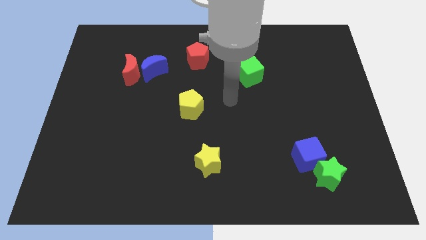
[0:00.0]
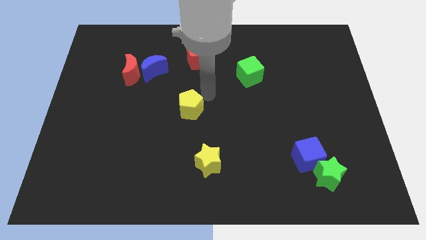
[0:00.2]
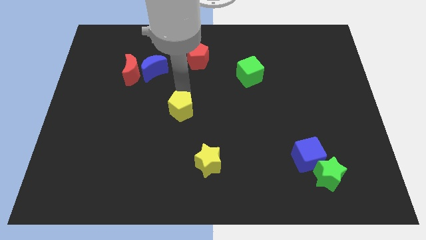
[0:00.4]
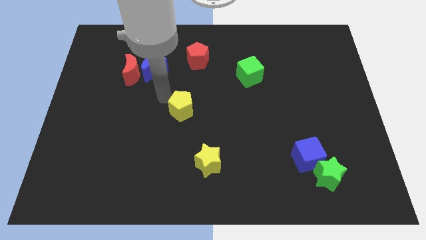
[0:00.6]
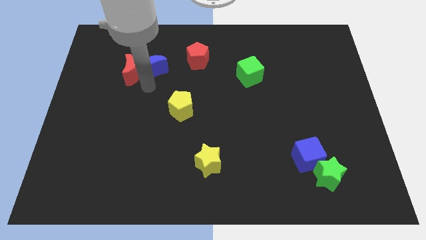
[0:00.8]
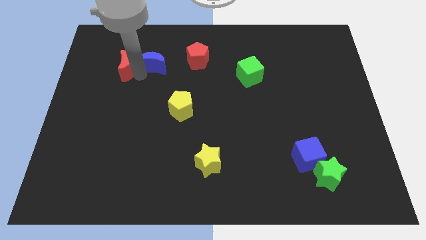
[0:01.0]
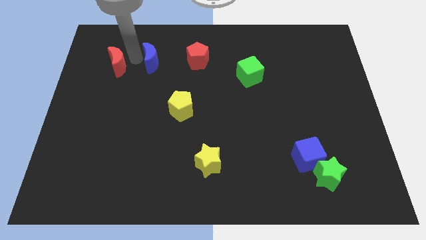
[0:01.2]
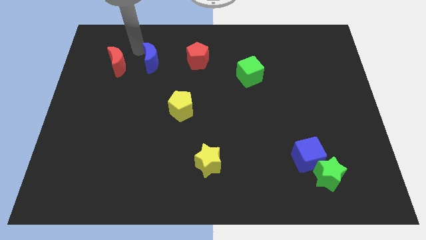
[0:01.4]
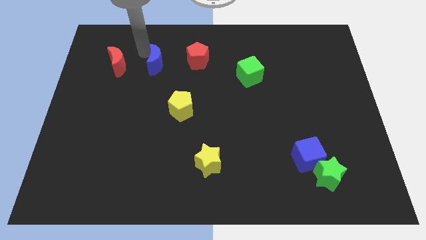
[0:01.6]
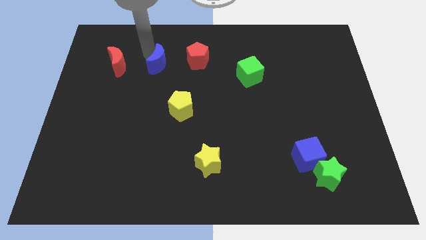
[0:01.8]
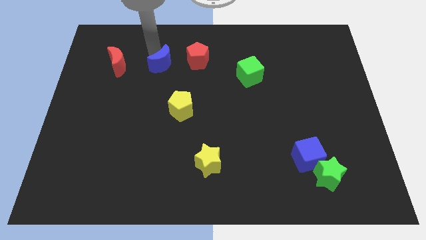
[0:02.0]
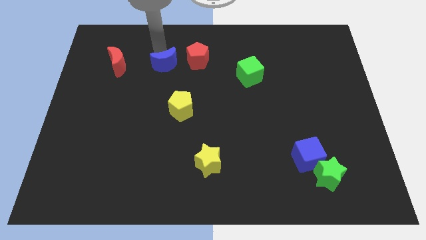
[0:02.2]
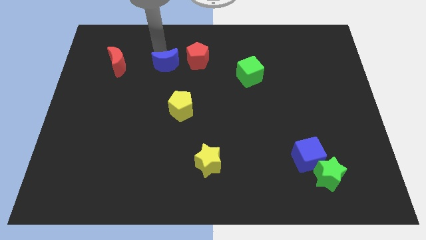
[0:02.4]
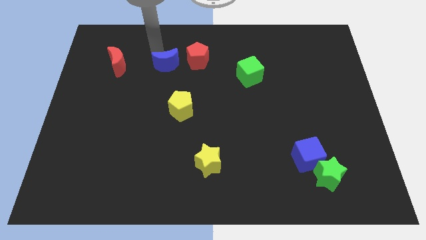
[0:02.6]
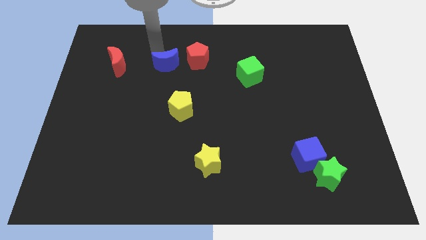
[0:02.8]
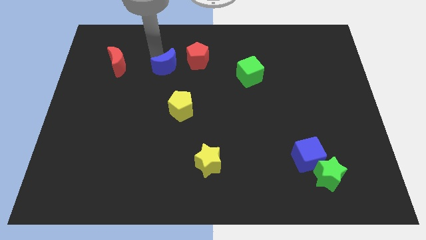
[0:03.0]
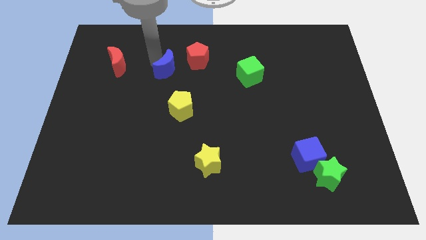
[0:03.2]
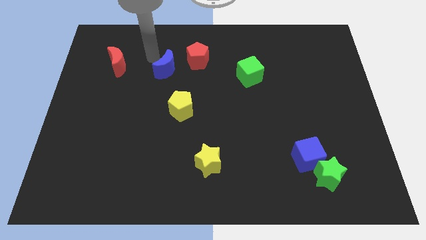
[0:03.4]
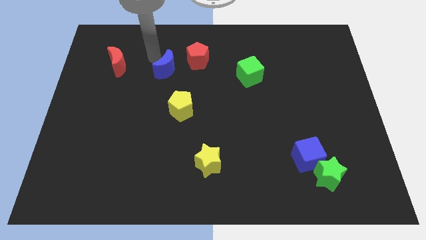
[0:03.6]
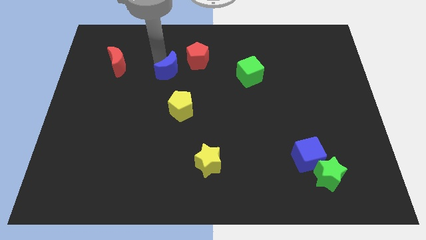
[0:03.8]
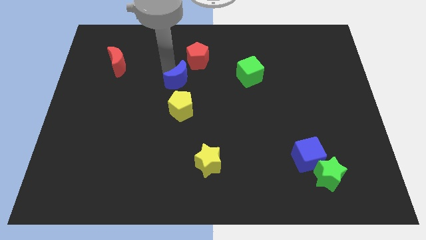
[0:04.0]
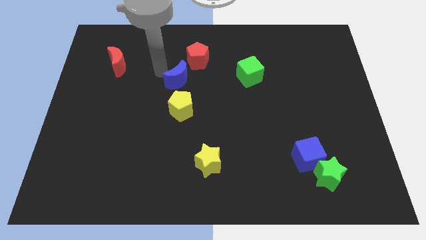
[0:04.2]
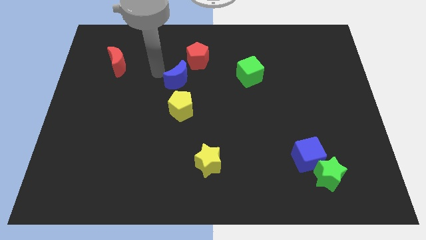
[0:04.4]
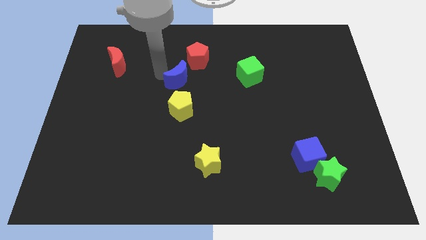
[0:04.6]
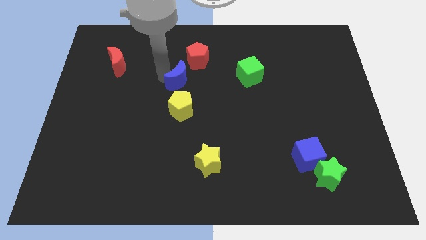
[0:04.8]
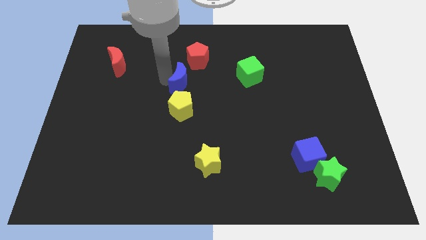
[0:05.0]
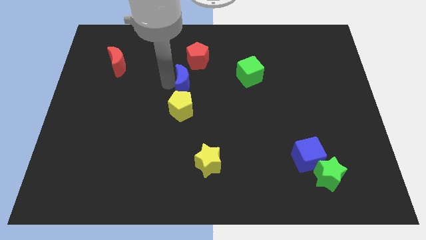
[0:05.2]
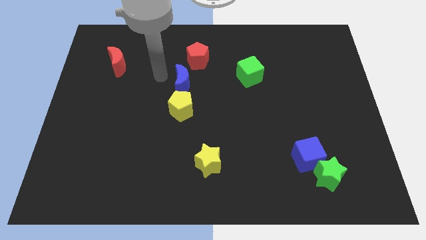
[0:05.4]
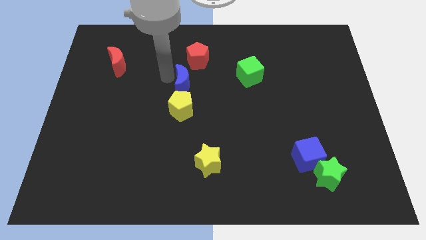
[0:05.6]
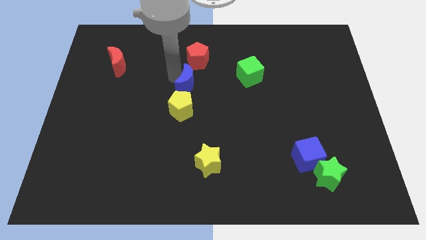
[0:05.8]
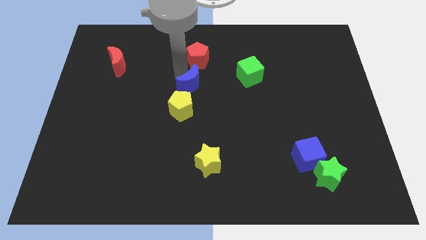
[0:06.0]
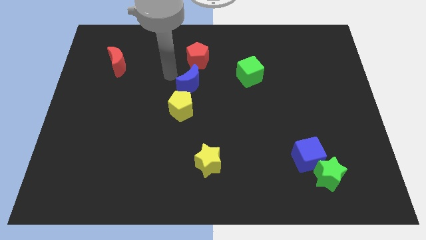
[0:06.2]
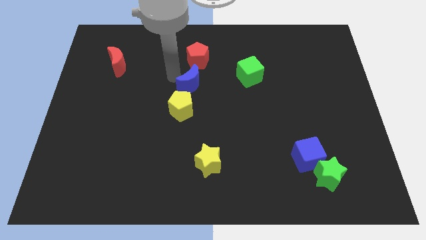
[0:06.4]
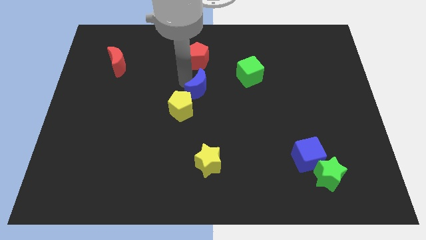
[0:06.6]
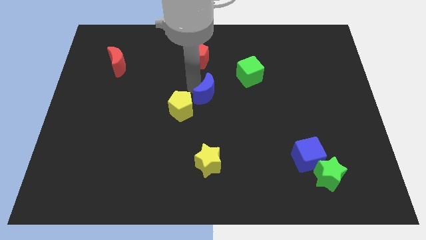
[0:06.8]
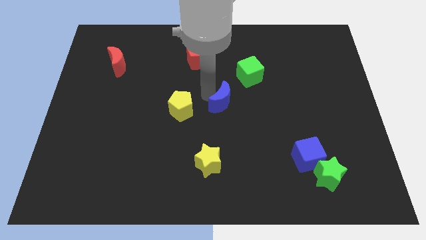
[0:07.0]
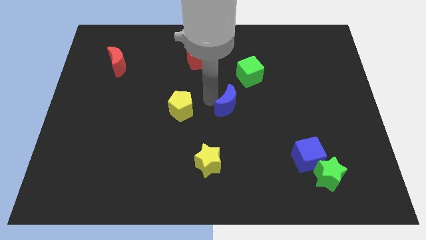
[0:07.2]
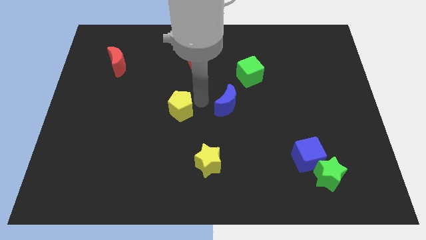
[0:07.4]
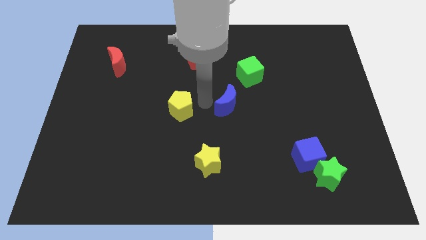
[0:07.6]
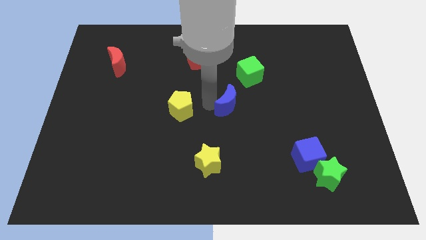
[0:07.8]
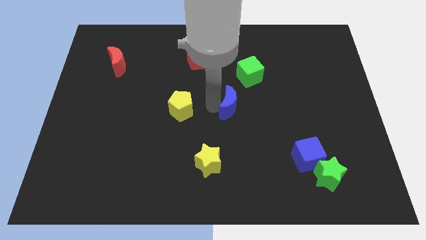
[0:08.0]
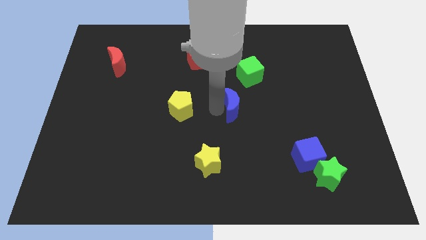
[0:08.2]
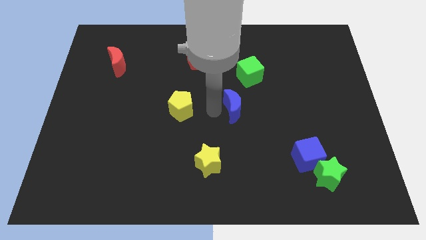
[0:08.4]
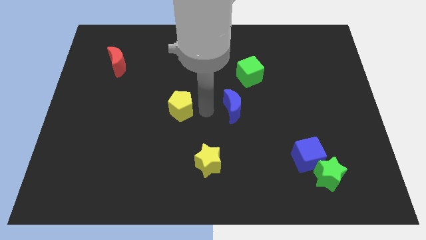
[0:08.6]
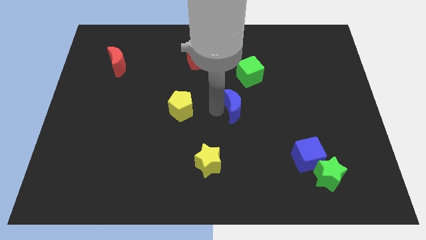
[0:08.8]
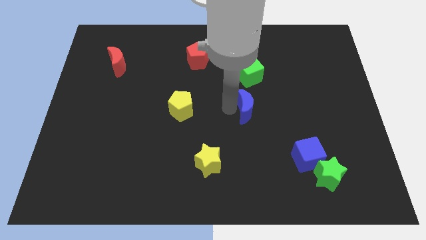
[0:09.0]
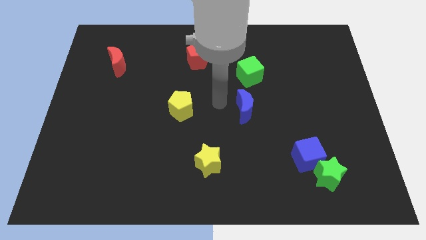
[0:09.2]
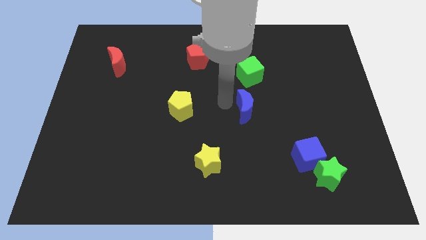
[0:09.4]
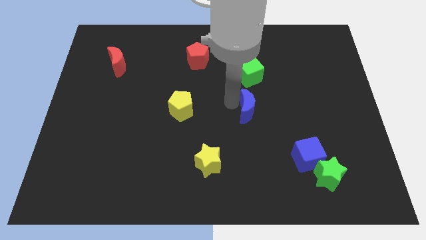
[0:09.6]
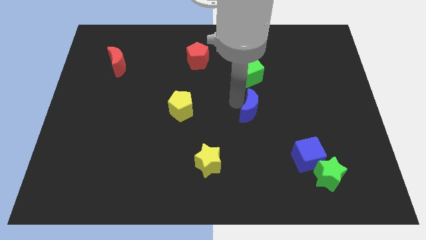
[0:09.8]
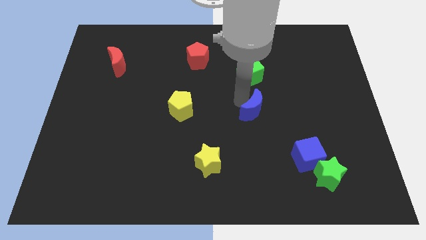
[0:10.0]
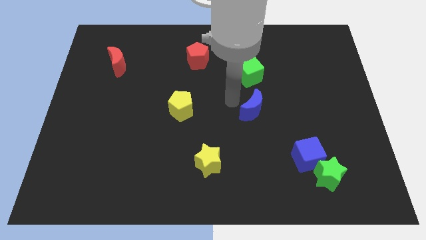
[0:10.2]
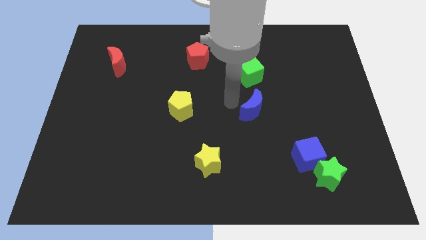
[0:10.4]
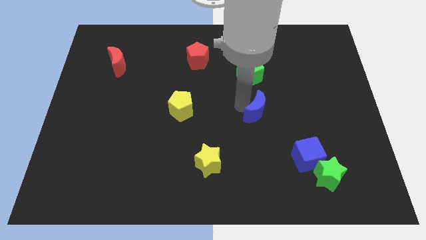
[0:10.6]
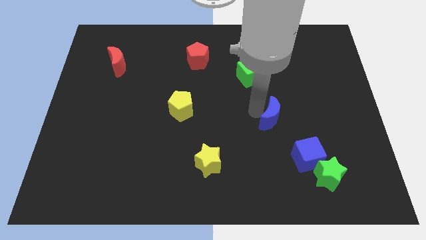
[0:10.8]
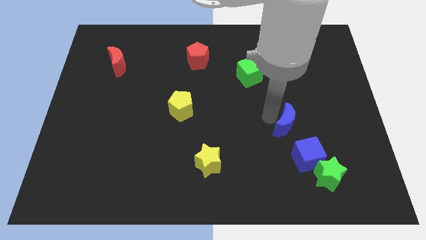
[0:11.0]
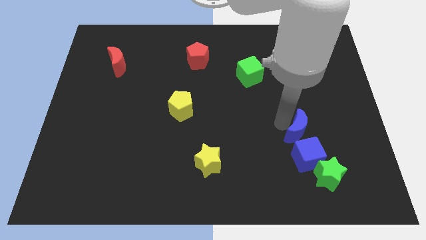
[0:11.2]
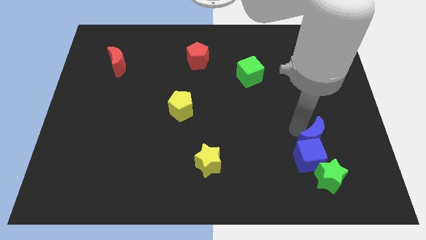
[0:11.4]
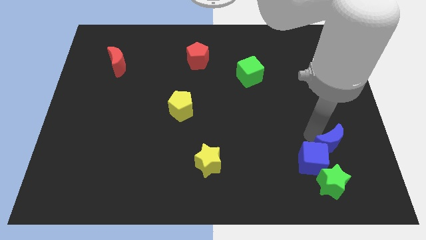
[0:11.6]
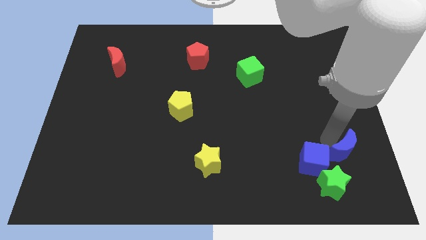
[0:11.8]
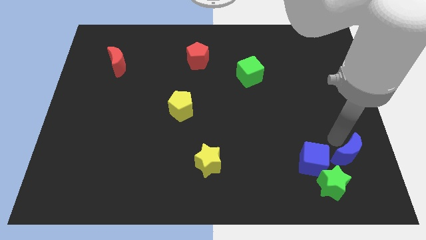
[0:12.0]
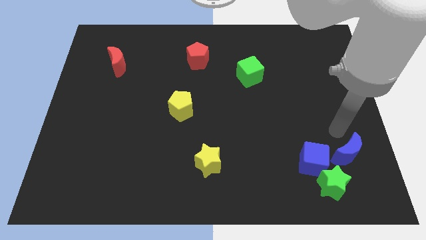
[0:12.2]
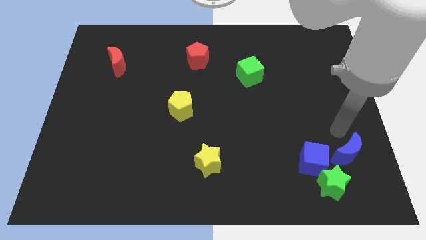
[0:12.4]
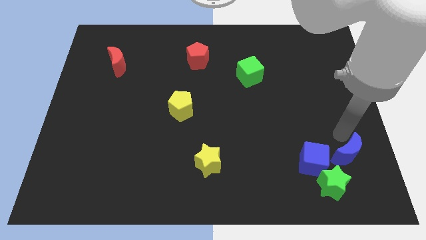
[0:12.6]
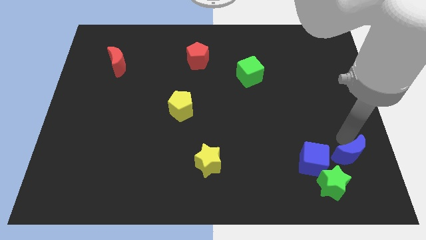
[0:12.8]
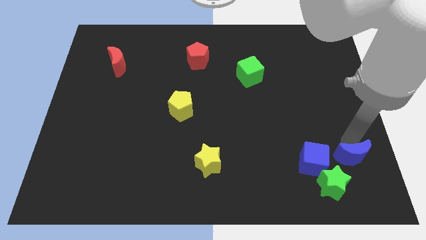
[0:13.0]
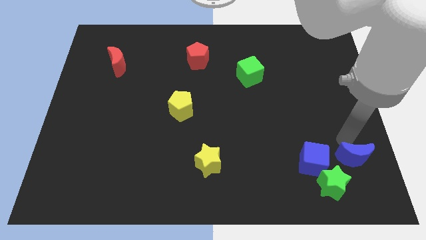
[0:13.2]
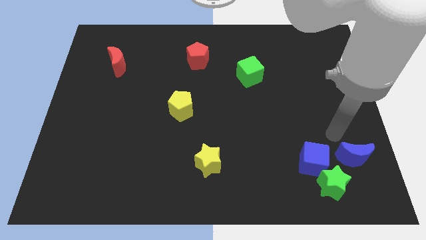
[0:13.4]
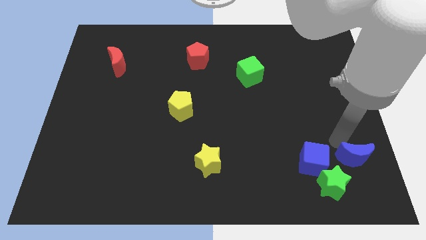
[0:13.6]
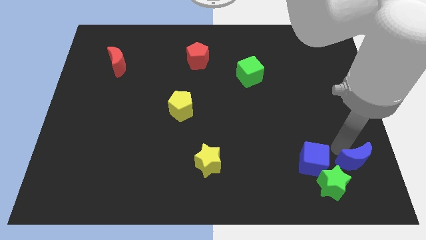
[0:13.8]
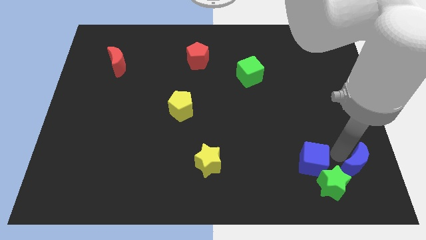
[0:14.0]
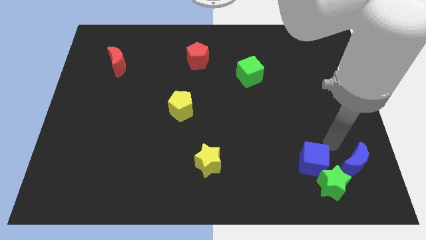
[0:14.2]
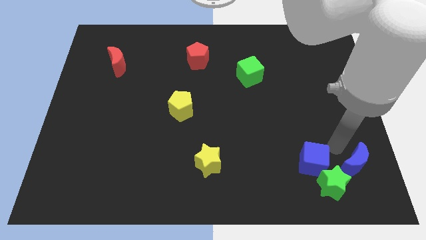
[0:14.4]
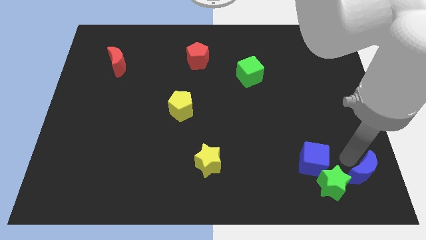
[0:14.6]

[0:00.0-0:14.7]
slide the blue moon to the bottom right corner
